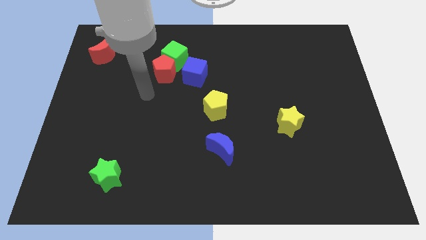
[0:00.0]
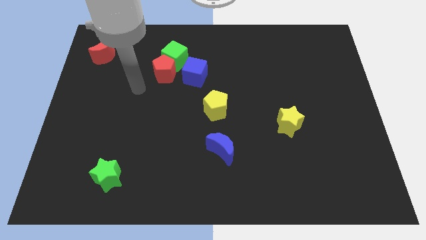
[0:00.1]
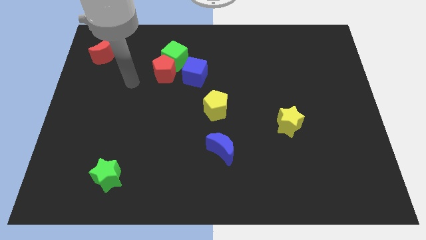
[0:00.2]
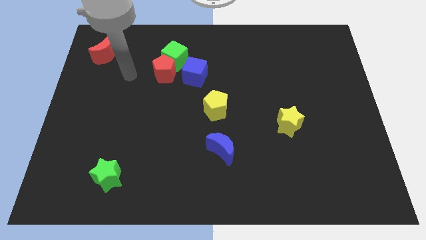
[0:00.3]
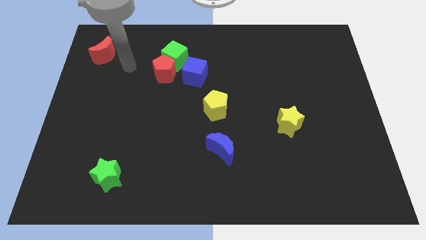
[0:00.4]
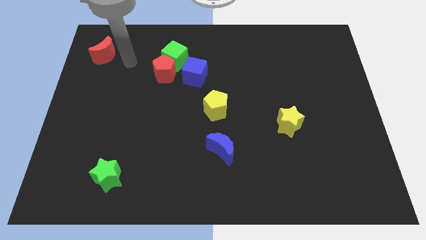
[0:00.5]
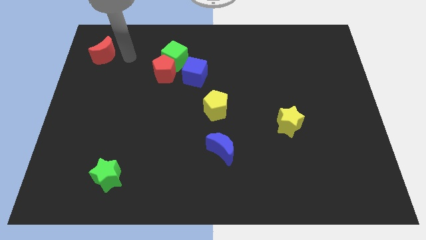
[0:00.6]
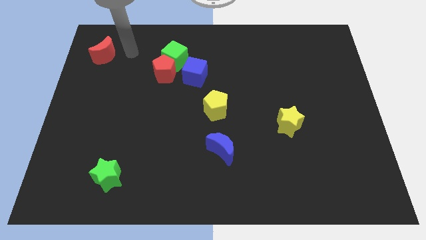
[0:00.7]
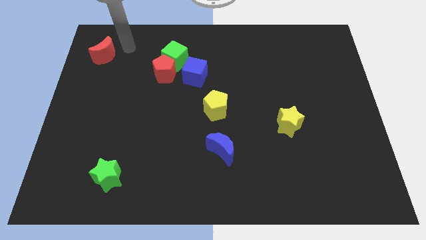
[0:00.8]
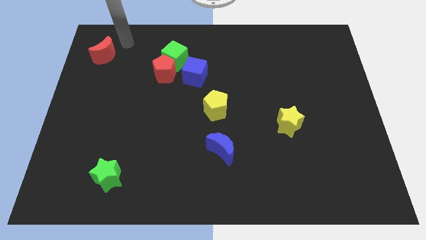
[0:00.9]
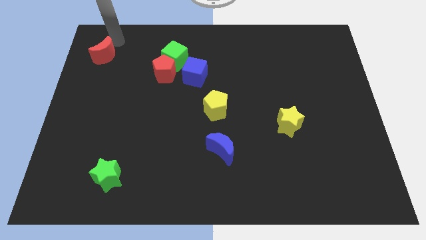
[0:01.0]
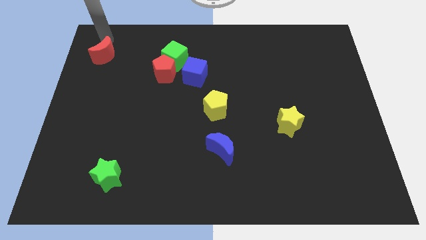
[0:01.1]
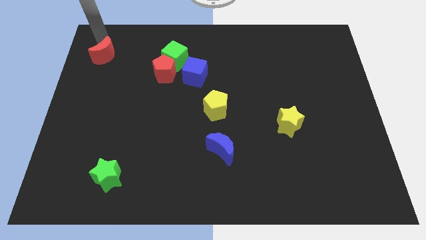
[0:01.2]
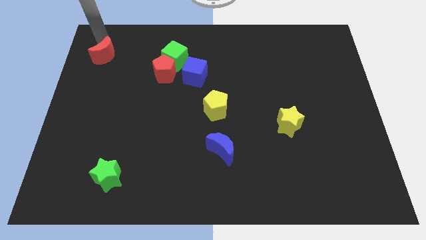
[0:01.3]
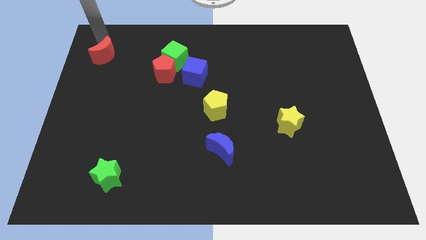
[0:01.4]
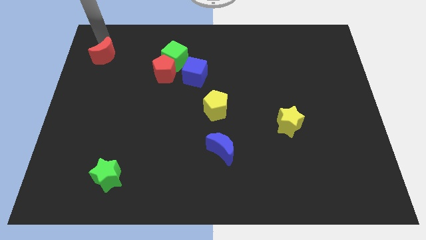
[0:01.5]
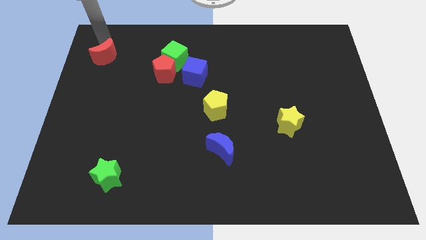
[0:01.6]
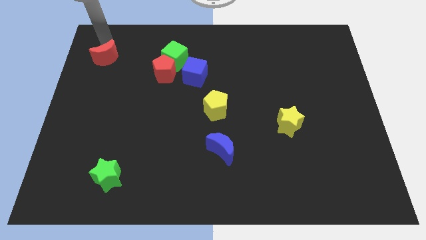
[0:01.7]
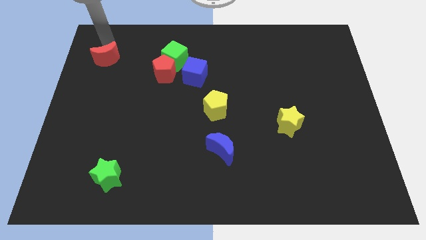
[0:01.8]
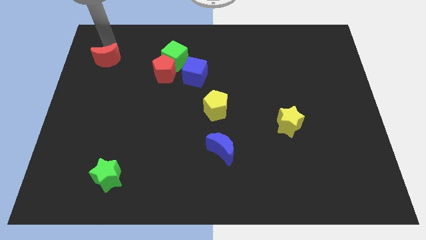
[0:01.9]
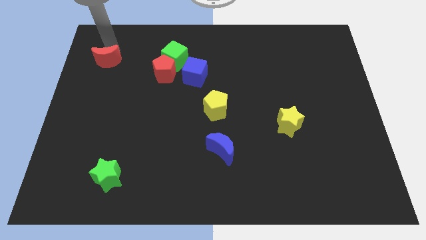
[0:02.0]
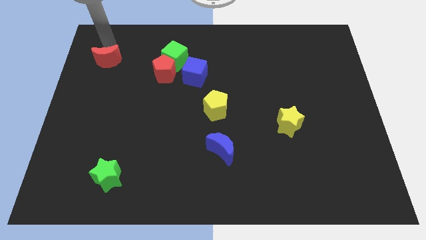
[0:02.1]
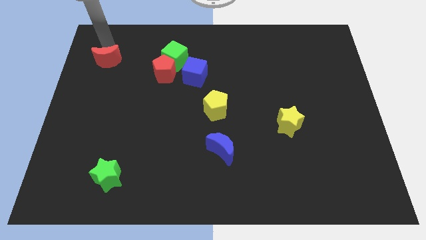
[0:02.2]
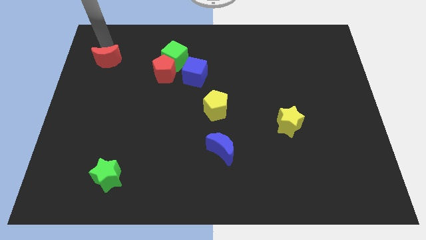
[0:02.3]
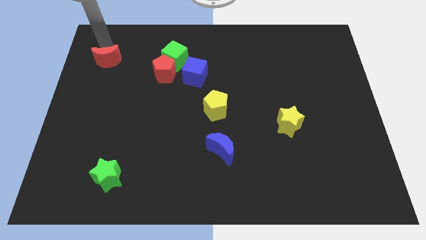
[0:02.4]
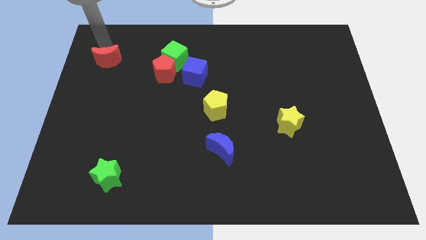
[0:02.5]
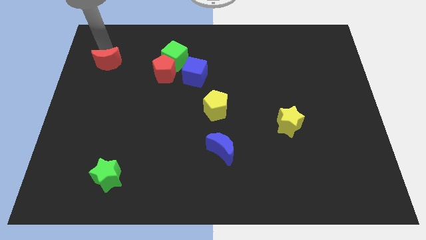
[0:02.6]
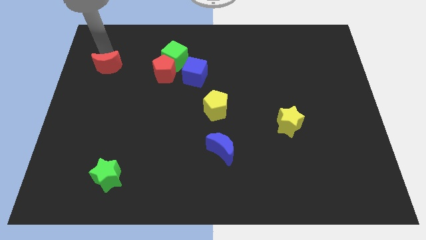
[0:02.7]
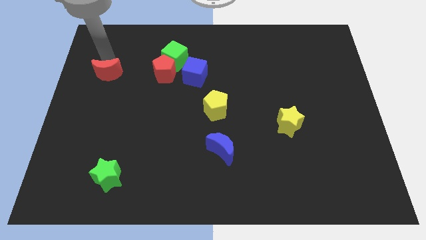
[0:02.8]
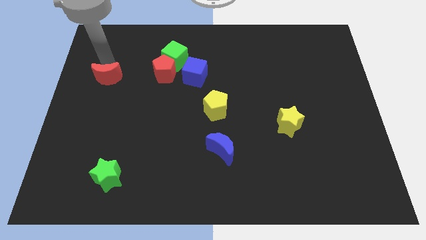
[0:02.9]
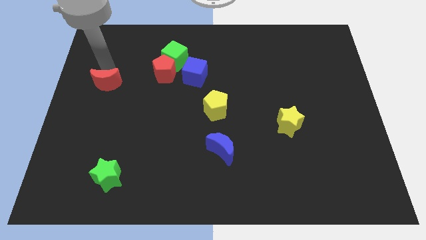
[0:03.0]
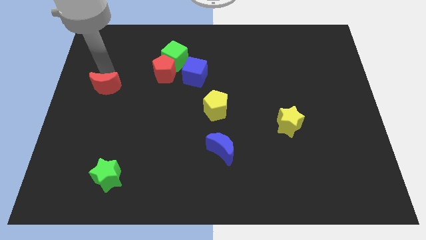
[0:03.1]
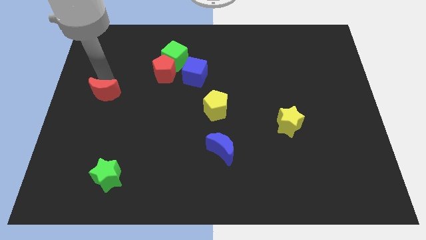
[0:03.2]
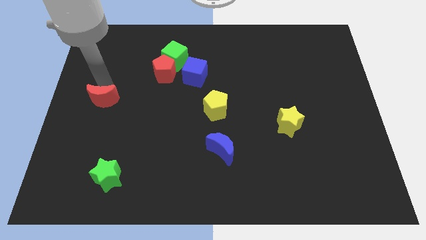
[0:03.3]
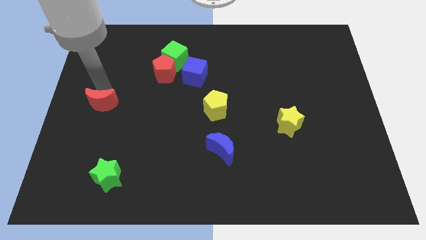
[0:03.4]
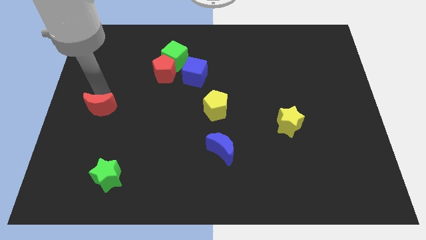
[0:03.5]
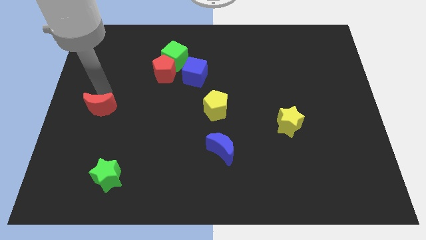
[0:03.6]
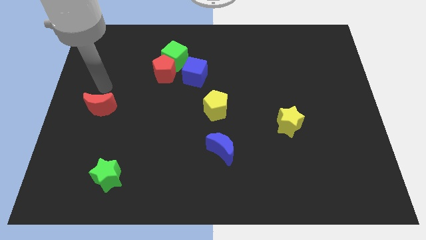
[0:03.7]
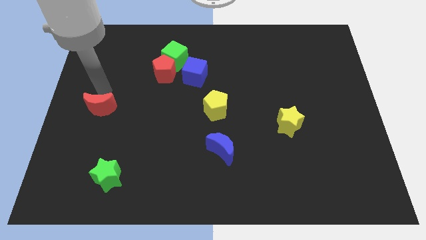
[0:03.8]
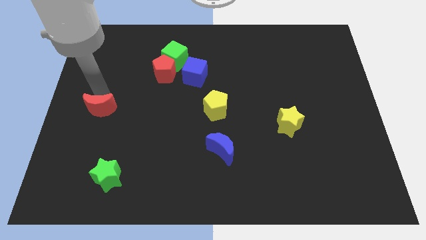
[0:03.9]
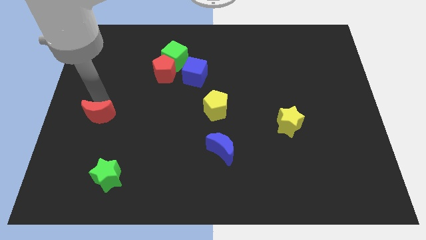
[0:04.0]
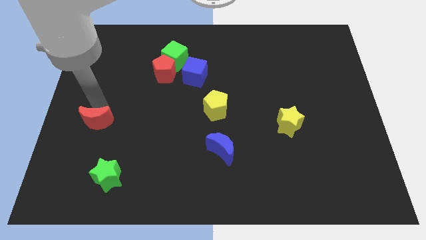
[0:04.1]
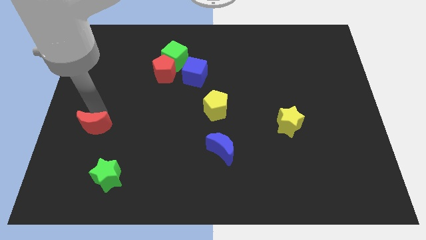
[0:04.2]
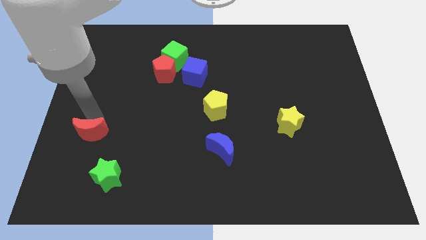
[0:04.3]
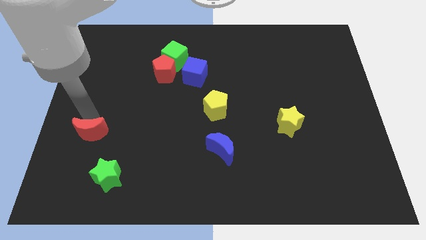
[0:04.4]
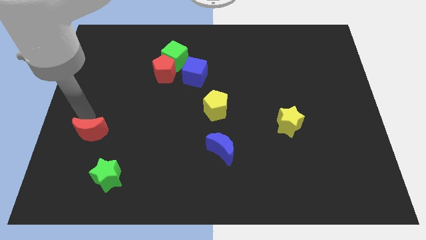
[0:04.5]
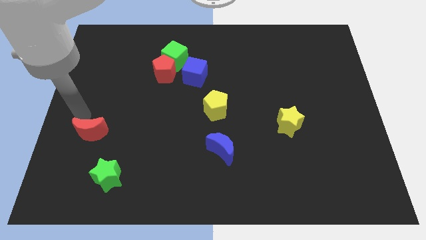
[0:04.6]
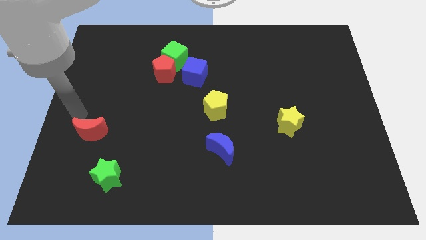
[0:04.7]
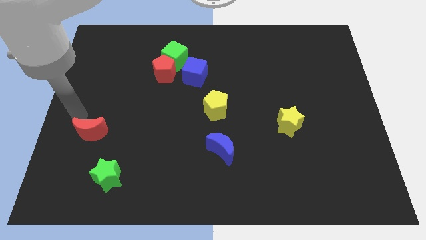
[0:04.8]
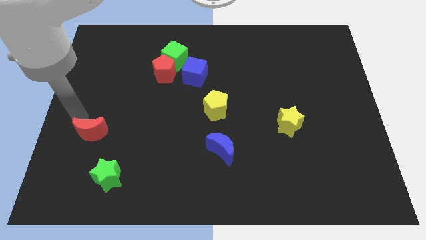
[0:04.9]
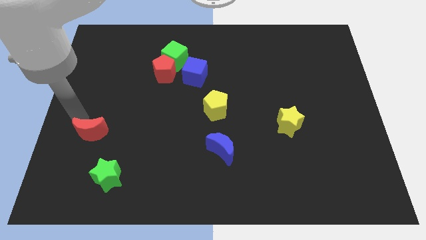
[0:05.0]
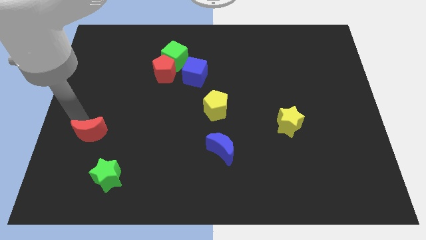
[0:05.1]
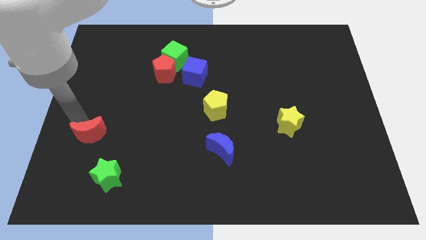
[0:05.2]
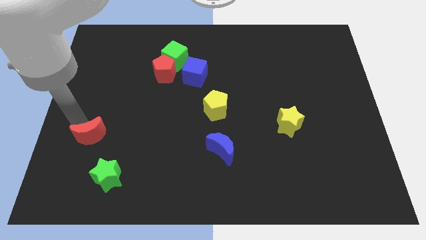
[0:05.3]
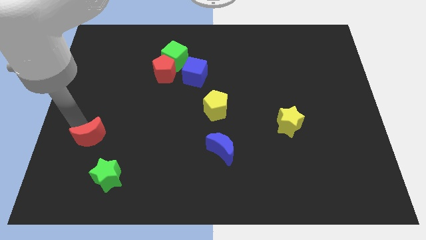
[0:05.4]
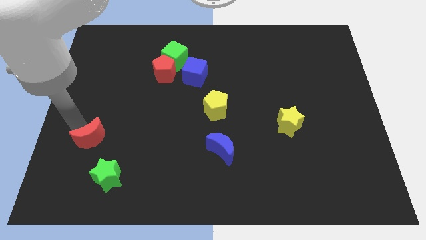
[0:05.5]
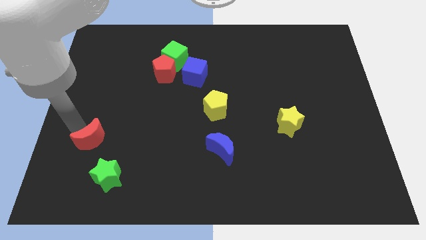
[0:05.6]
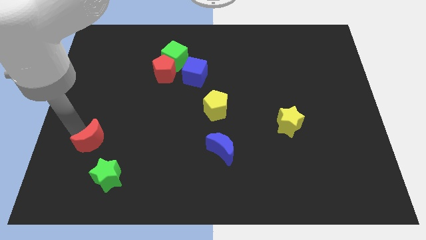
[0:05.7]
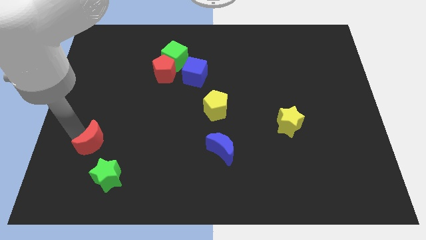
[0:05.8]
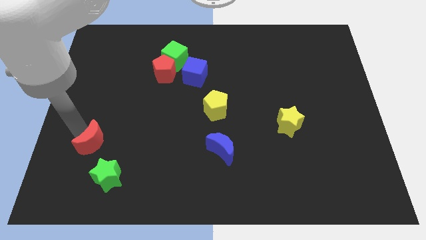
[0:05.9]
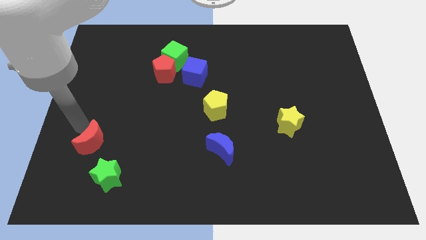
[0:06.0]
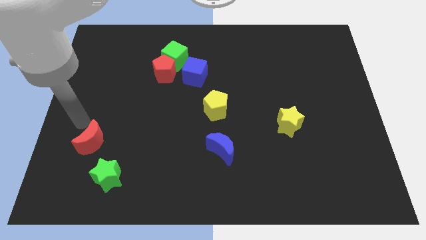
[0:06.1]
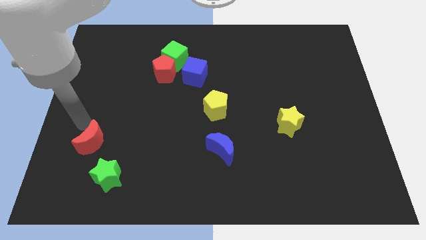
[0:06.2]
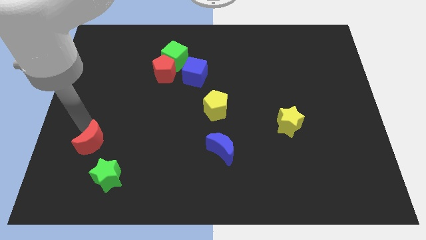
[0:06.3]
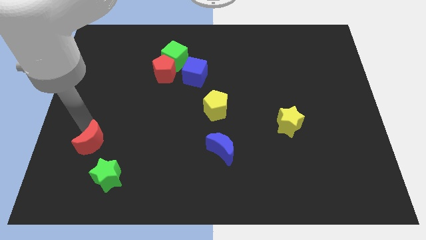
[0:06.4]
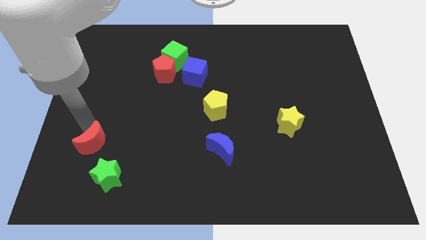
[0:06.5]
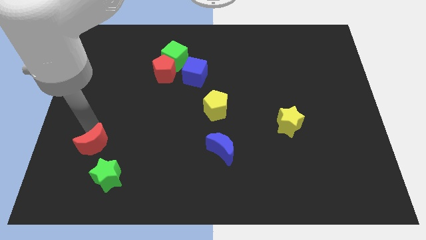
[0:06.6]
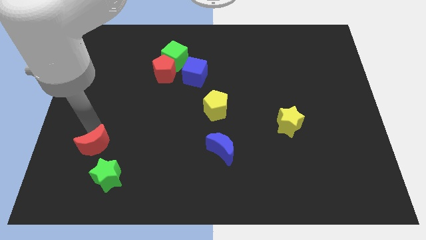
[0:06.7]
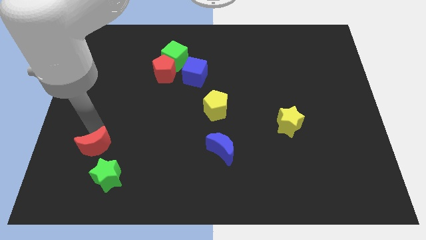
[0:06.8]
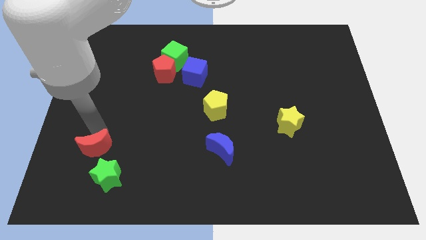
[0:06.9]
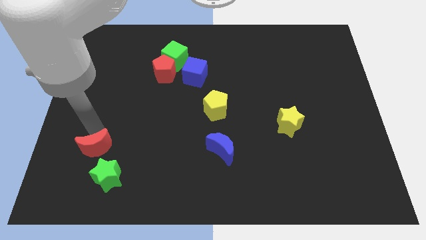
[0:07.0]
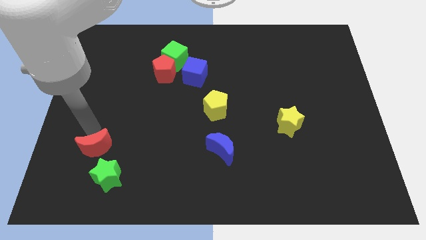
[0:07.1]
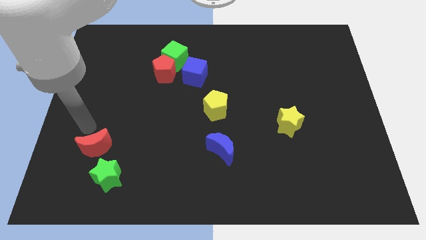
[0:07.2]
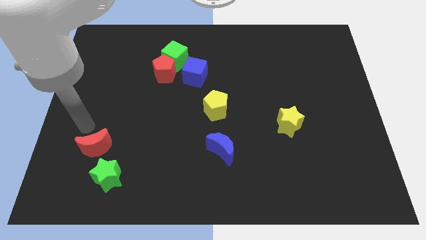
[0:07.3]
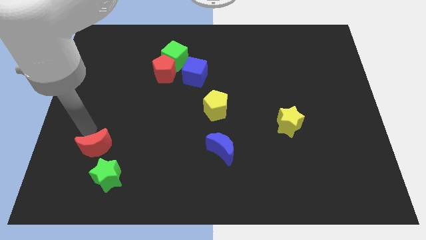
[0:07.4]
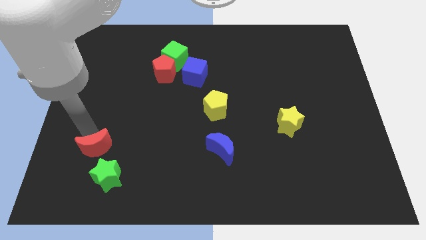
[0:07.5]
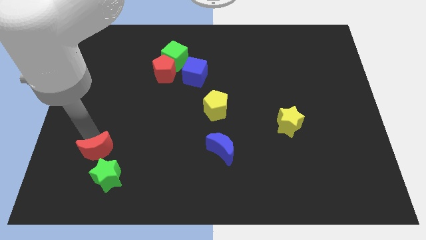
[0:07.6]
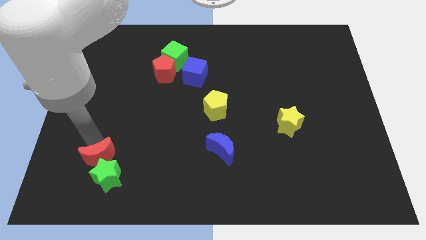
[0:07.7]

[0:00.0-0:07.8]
push the red moon to the green star
